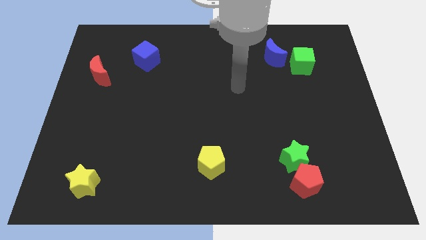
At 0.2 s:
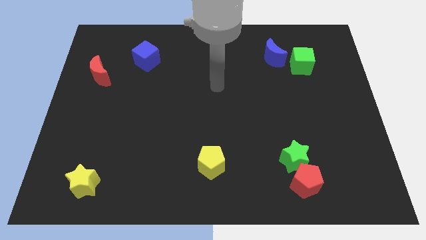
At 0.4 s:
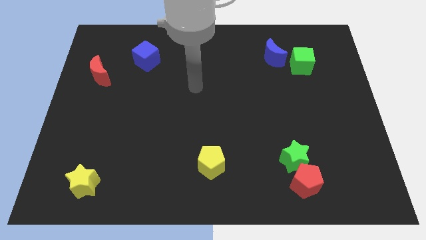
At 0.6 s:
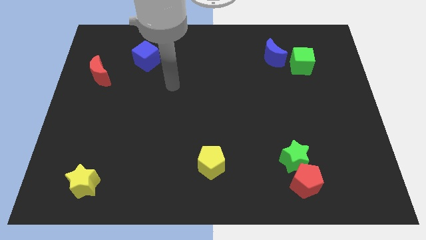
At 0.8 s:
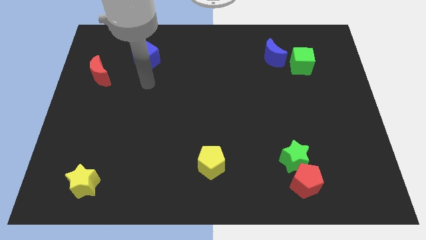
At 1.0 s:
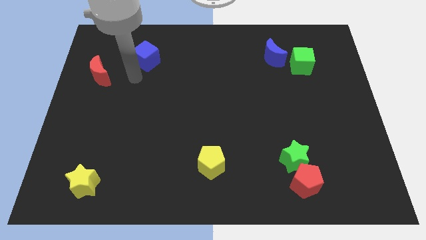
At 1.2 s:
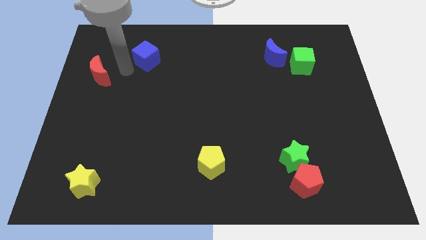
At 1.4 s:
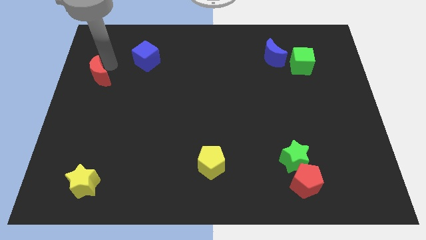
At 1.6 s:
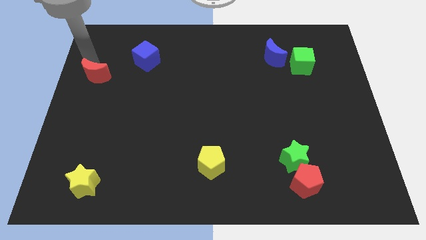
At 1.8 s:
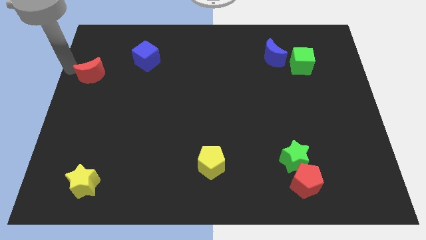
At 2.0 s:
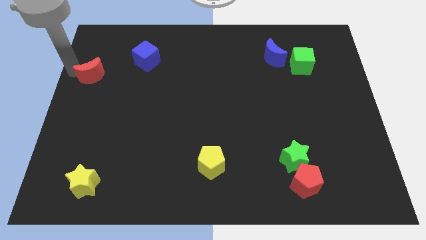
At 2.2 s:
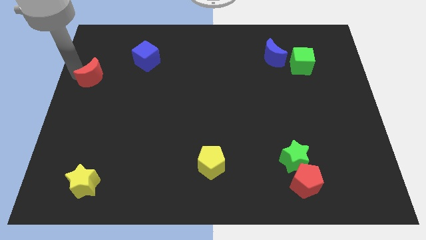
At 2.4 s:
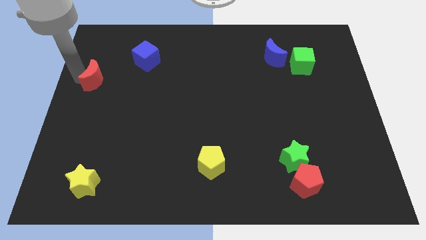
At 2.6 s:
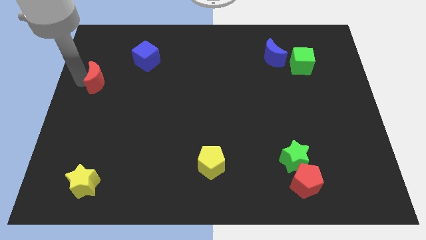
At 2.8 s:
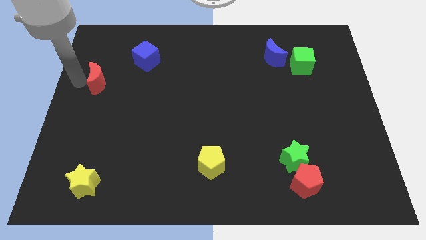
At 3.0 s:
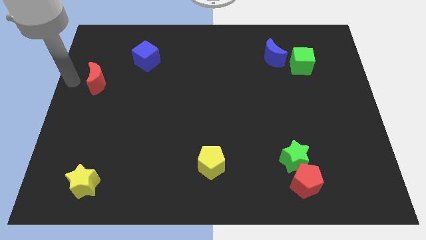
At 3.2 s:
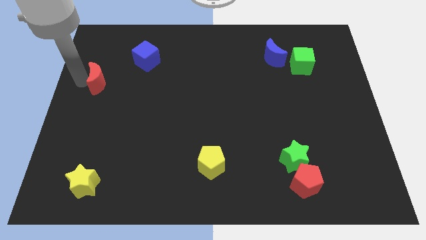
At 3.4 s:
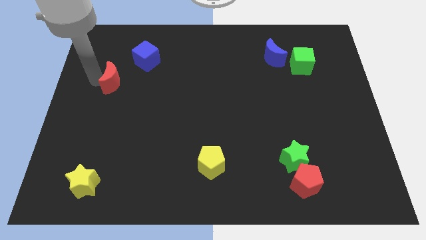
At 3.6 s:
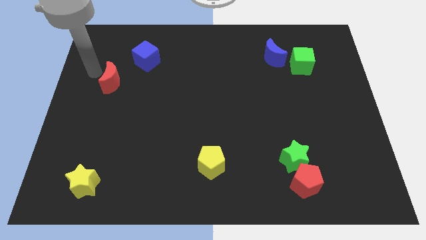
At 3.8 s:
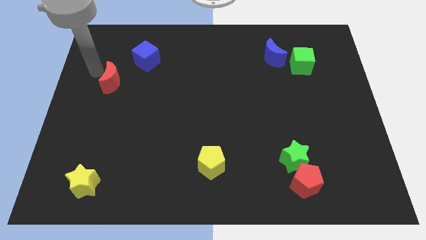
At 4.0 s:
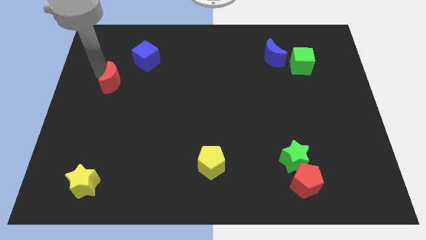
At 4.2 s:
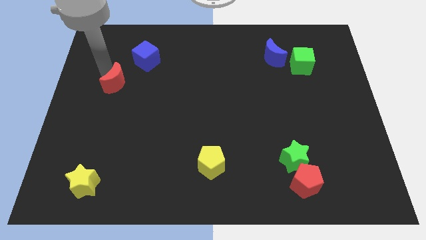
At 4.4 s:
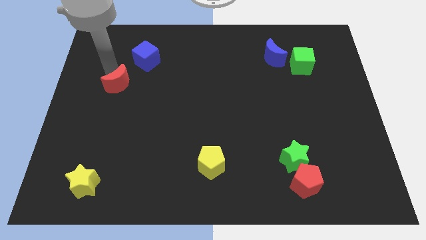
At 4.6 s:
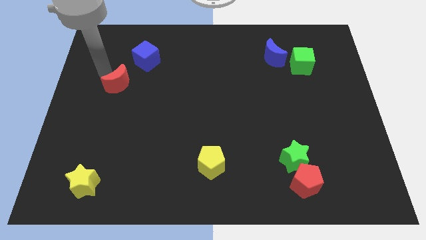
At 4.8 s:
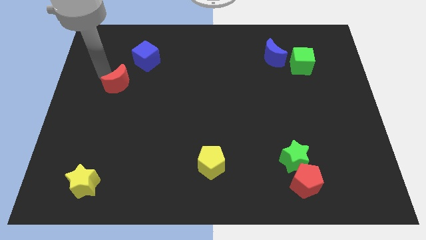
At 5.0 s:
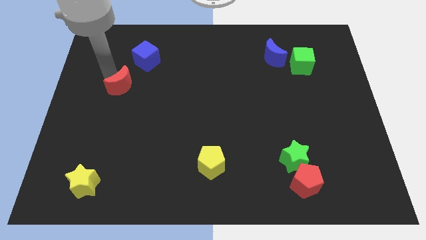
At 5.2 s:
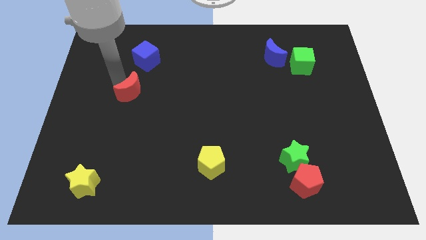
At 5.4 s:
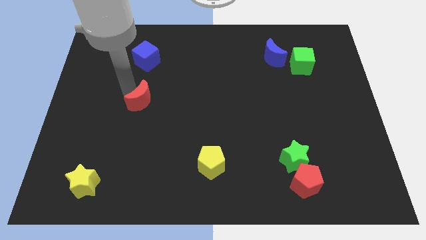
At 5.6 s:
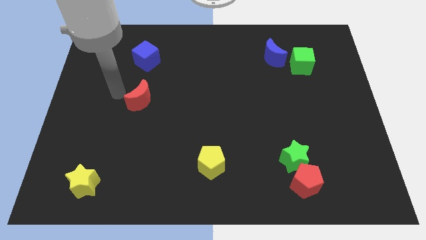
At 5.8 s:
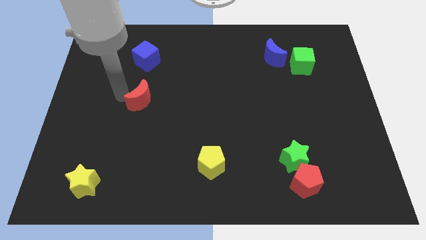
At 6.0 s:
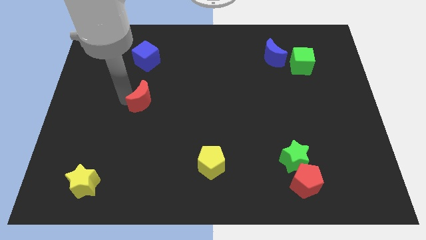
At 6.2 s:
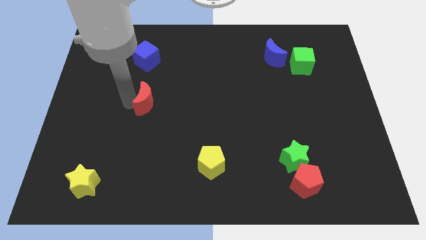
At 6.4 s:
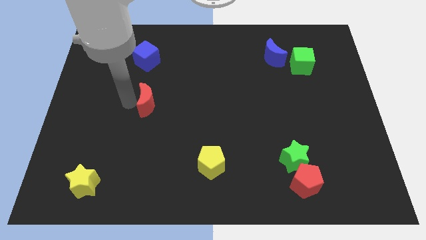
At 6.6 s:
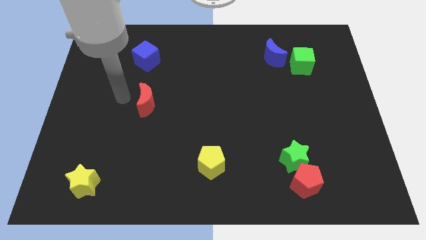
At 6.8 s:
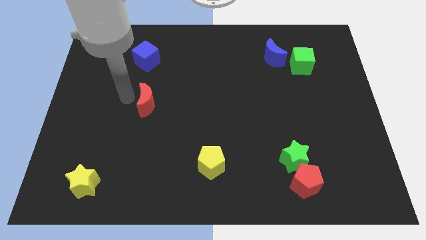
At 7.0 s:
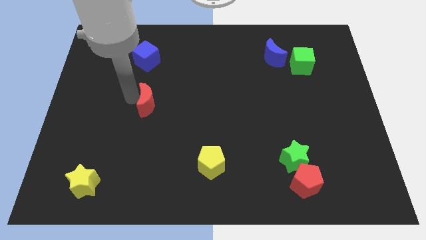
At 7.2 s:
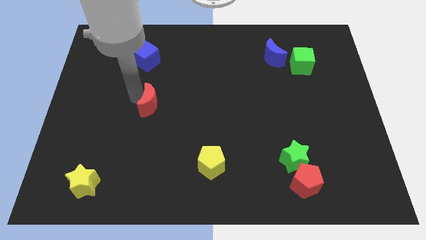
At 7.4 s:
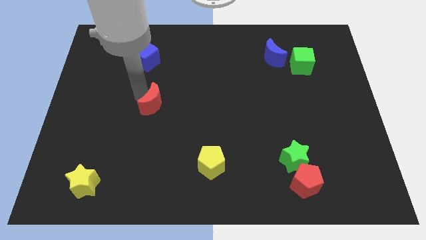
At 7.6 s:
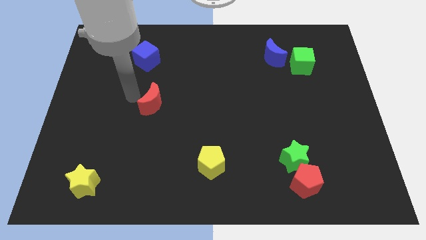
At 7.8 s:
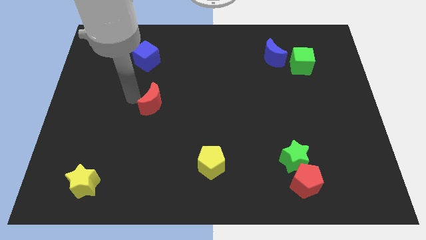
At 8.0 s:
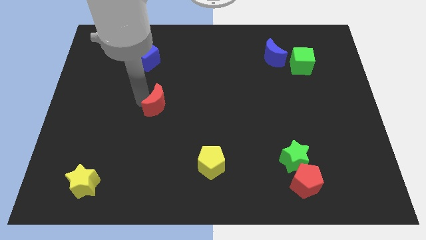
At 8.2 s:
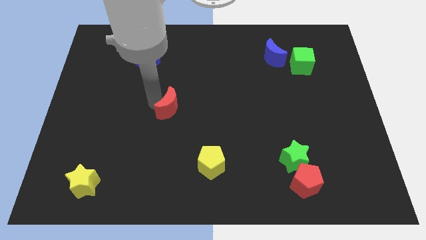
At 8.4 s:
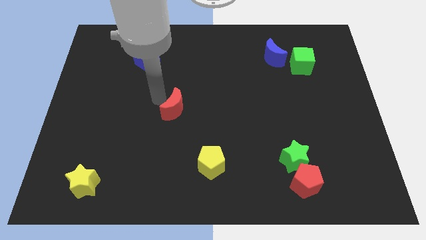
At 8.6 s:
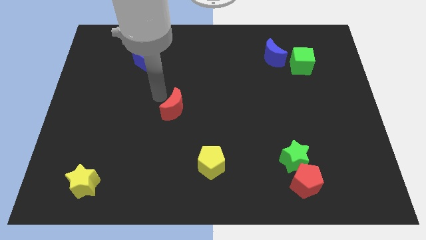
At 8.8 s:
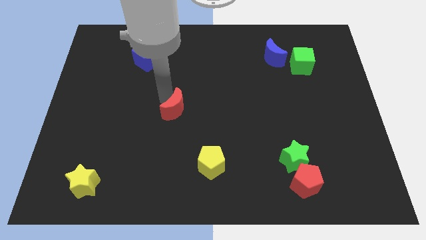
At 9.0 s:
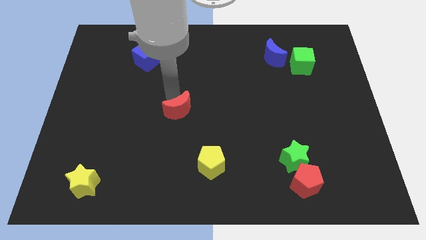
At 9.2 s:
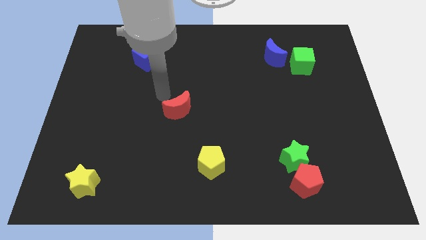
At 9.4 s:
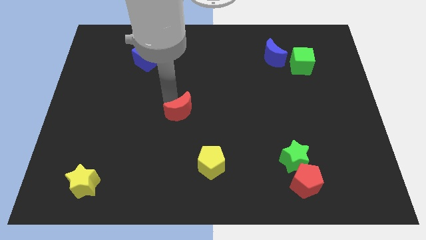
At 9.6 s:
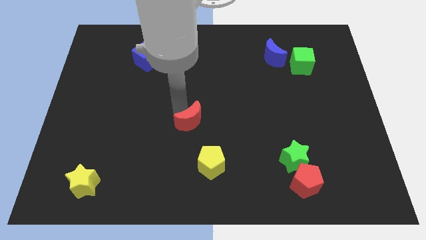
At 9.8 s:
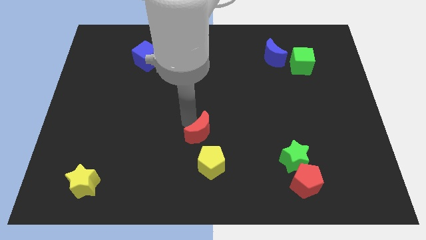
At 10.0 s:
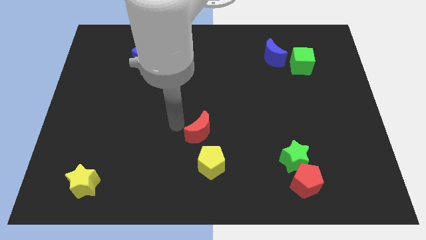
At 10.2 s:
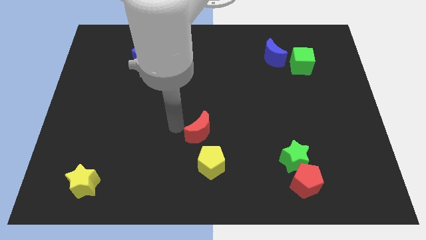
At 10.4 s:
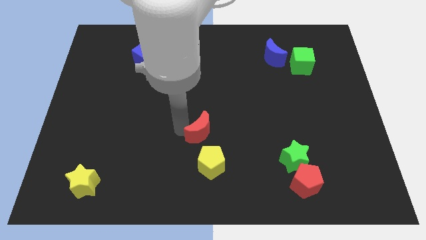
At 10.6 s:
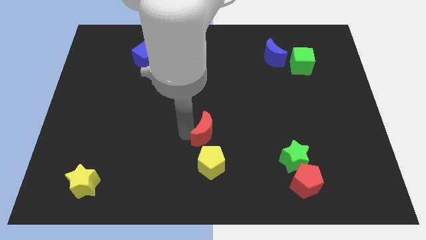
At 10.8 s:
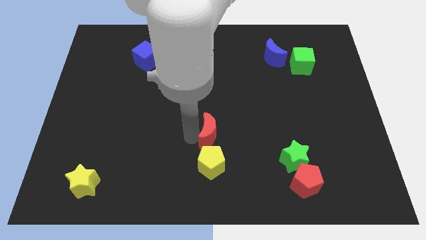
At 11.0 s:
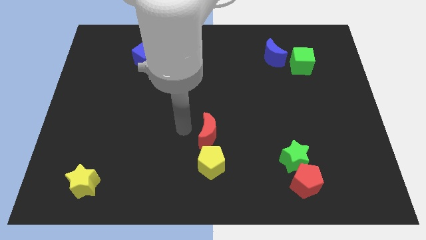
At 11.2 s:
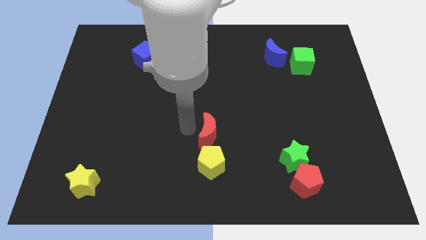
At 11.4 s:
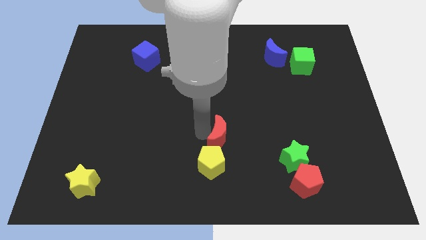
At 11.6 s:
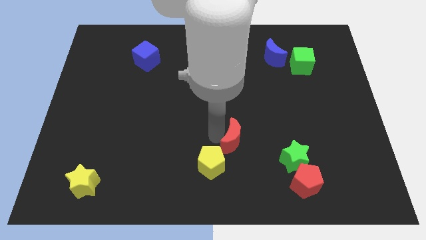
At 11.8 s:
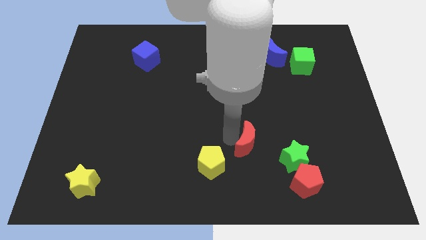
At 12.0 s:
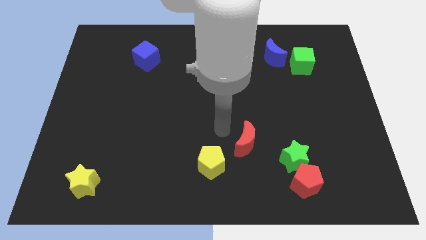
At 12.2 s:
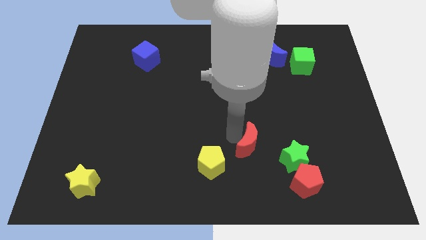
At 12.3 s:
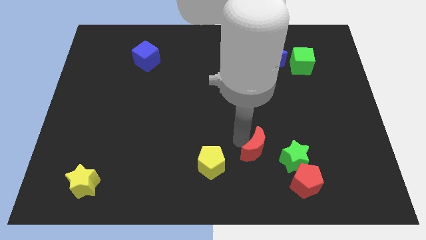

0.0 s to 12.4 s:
push the red moon to the top left of the red pentagon
